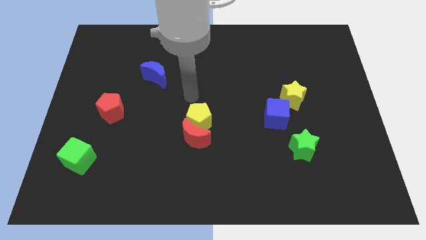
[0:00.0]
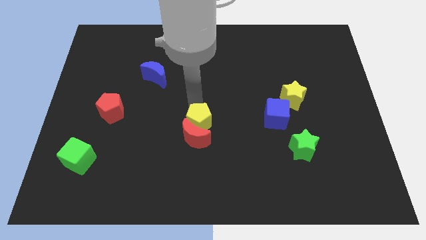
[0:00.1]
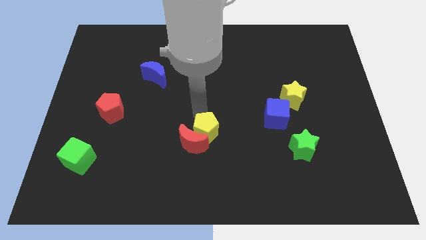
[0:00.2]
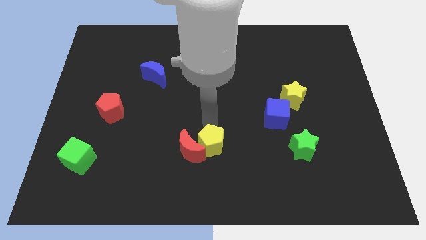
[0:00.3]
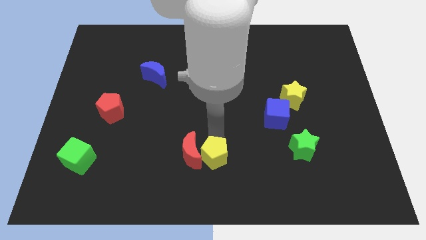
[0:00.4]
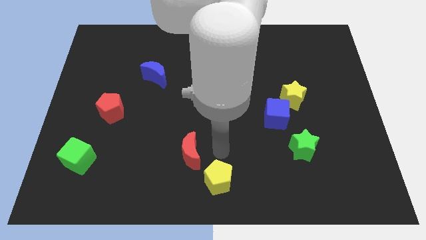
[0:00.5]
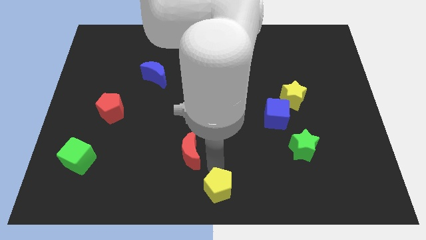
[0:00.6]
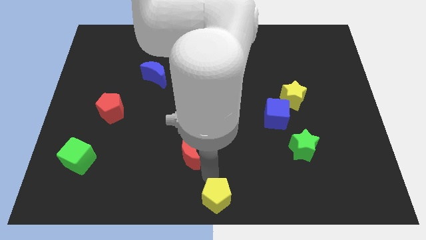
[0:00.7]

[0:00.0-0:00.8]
move the red moon away from the yellow pentagon

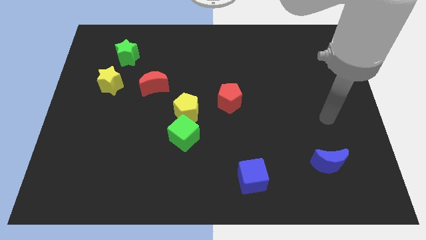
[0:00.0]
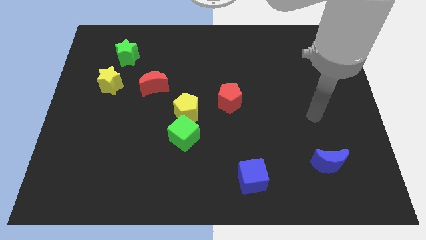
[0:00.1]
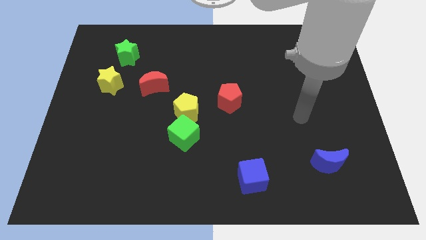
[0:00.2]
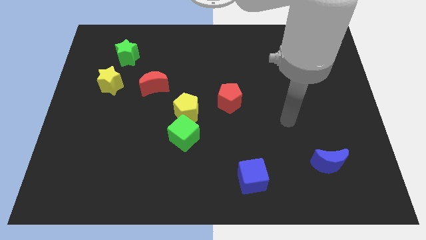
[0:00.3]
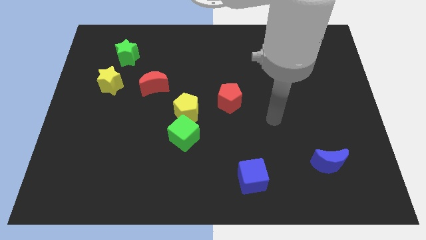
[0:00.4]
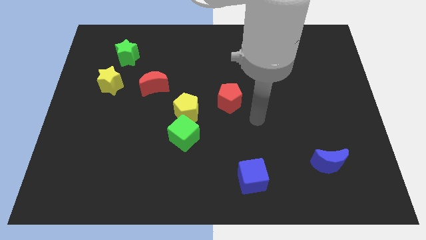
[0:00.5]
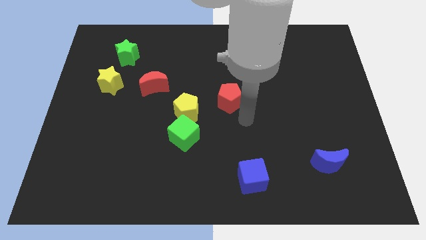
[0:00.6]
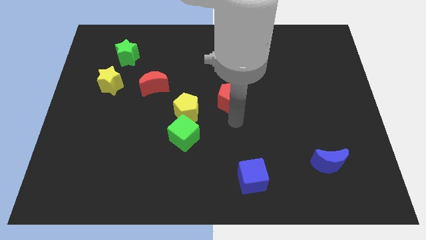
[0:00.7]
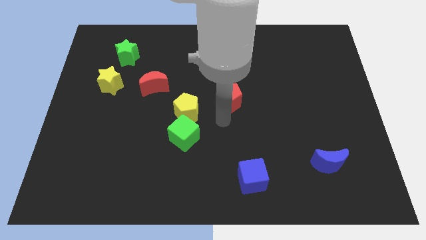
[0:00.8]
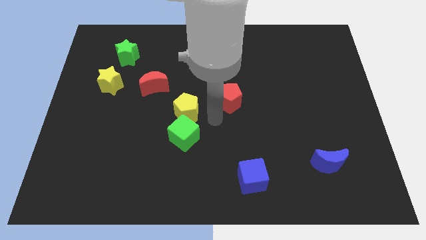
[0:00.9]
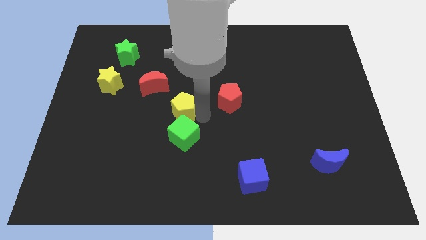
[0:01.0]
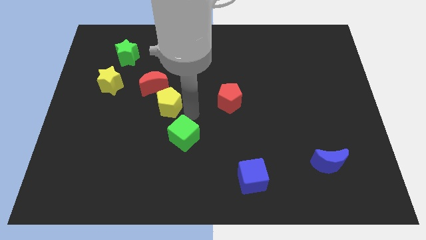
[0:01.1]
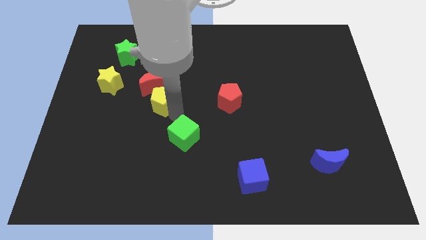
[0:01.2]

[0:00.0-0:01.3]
separate the green cube from the yellow pentagon

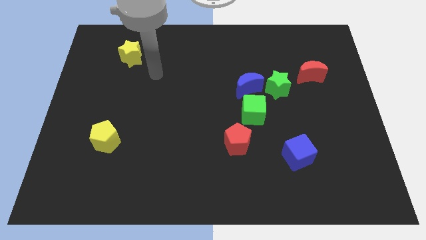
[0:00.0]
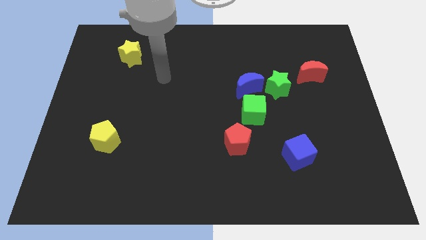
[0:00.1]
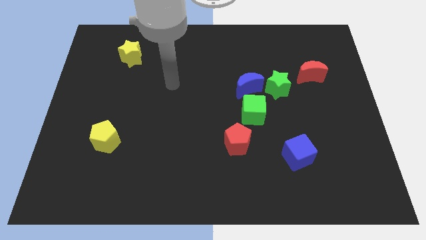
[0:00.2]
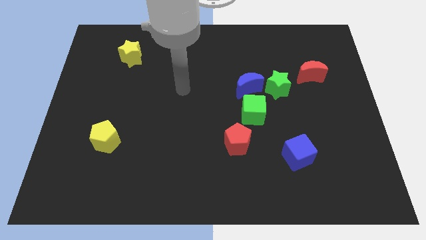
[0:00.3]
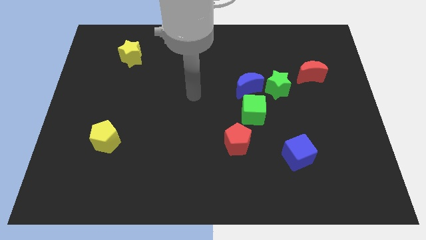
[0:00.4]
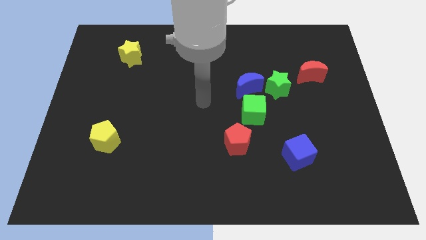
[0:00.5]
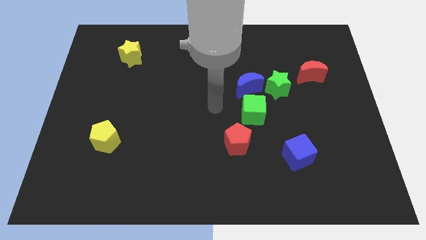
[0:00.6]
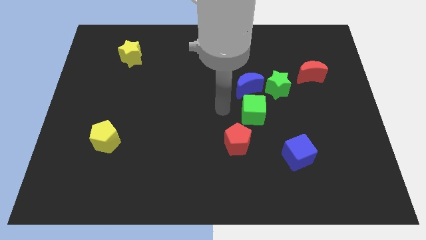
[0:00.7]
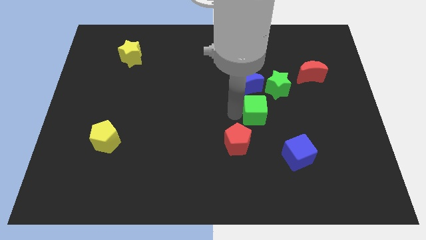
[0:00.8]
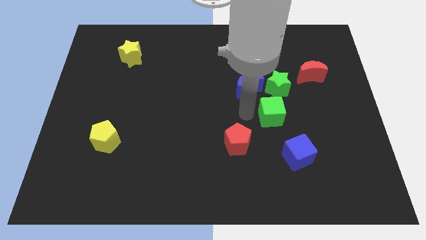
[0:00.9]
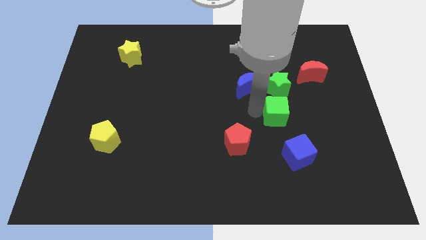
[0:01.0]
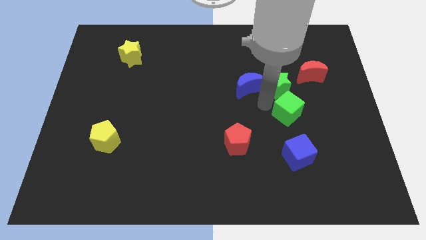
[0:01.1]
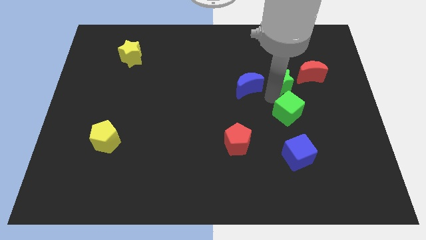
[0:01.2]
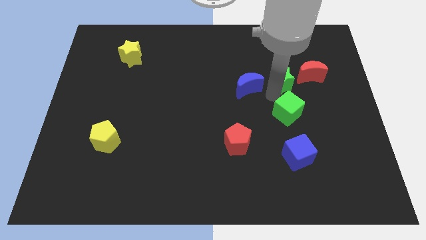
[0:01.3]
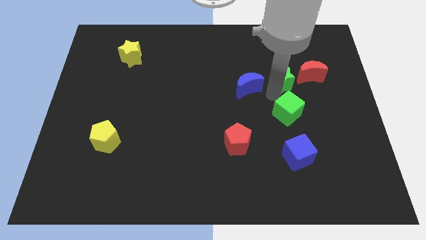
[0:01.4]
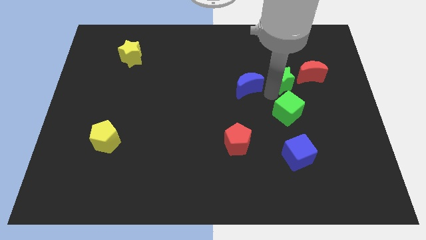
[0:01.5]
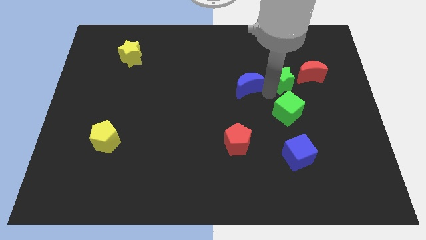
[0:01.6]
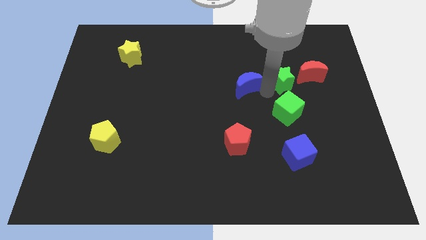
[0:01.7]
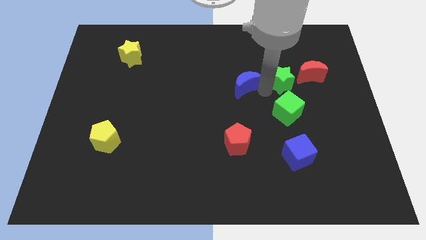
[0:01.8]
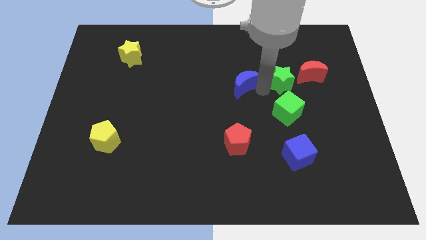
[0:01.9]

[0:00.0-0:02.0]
pull the blue moon apart from the green star and green cube

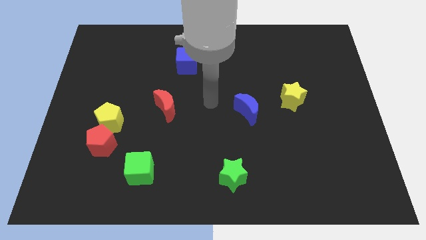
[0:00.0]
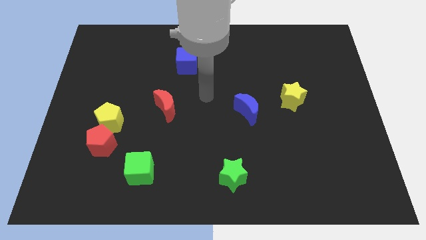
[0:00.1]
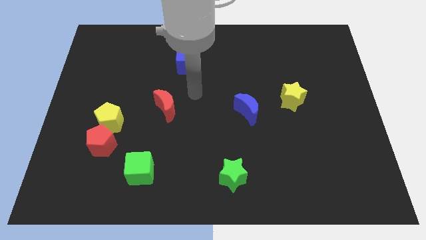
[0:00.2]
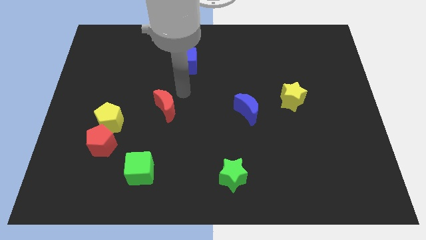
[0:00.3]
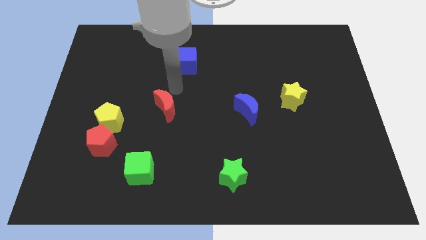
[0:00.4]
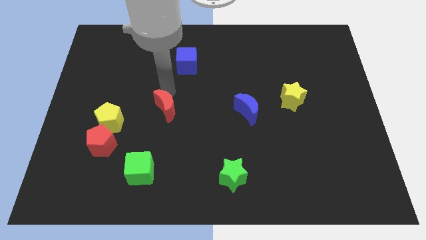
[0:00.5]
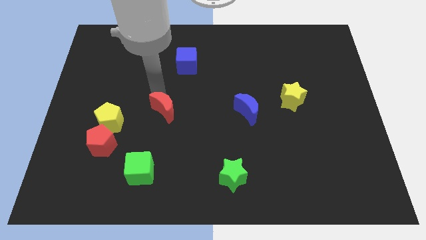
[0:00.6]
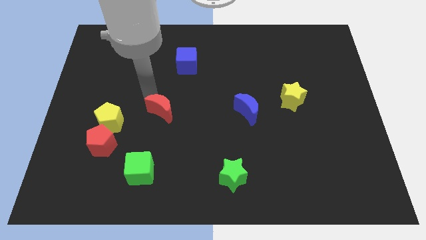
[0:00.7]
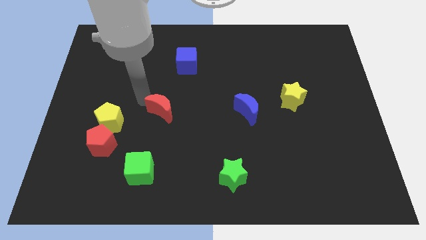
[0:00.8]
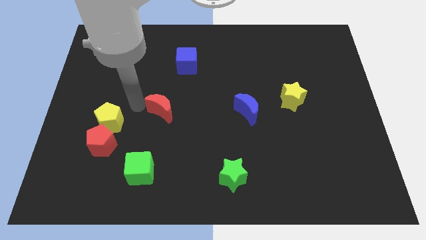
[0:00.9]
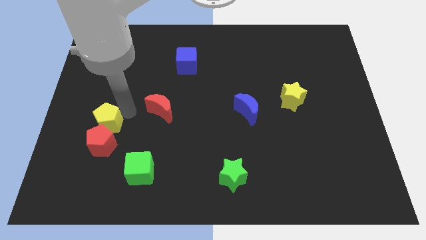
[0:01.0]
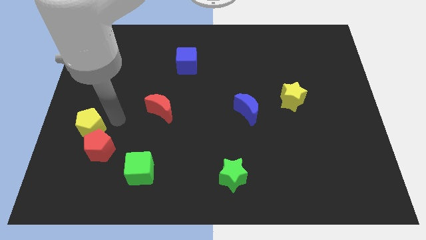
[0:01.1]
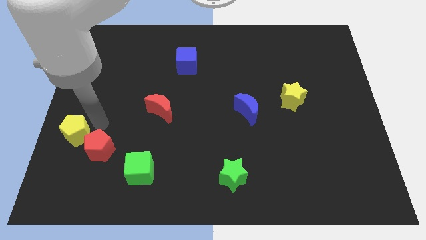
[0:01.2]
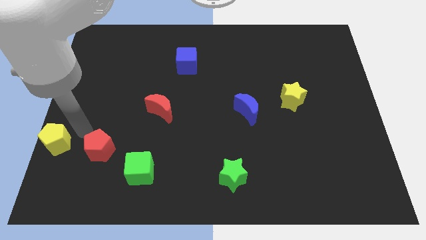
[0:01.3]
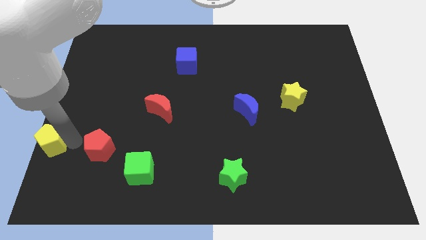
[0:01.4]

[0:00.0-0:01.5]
move the red pentagon away from the yellow pentagon

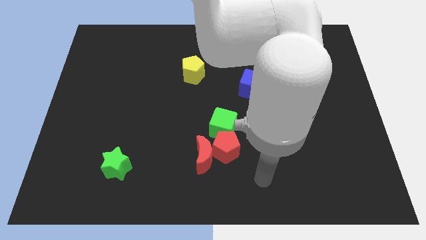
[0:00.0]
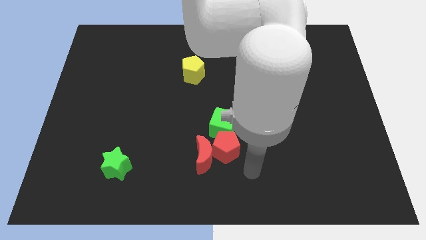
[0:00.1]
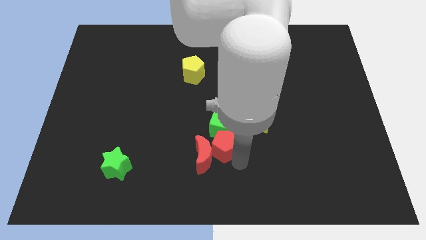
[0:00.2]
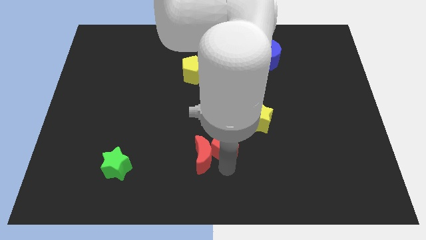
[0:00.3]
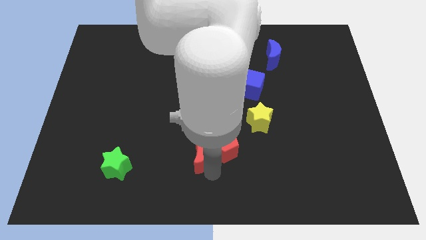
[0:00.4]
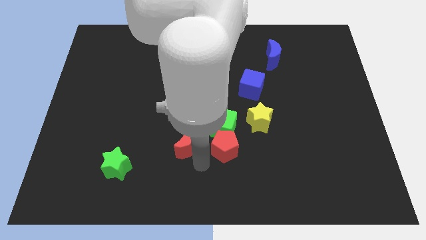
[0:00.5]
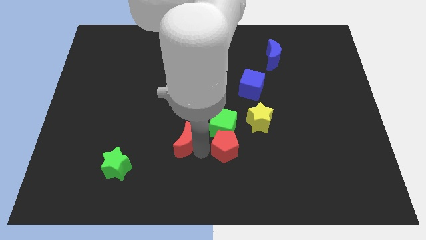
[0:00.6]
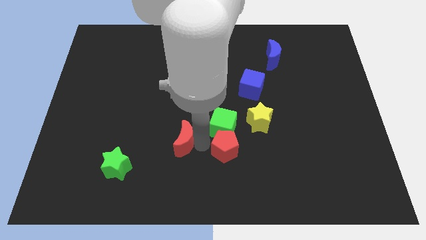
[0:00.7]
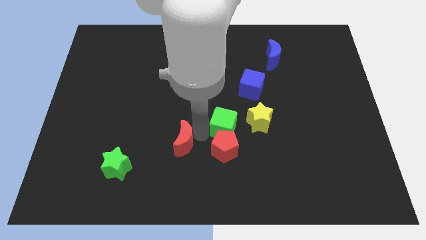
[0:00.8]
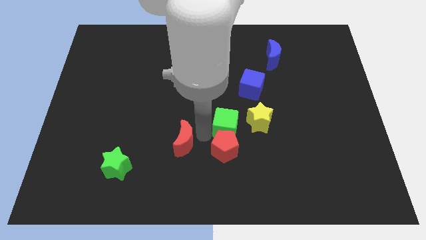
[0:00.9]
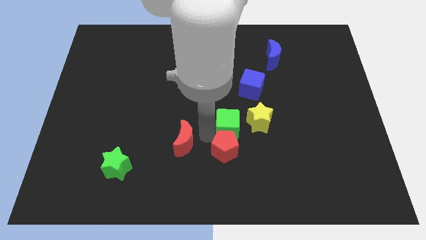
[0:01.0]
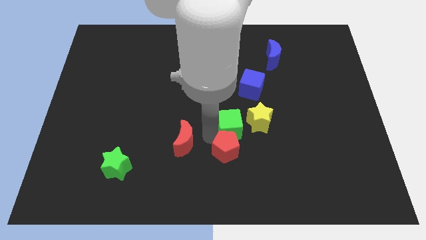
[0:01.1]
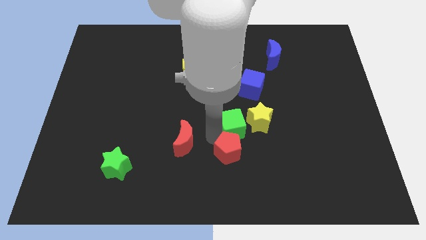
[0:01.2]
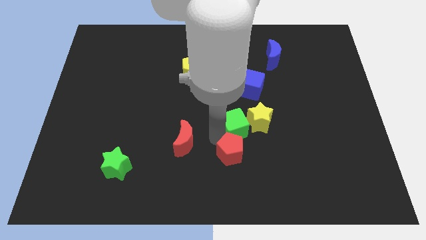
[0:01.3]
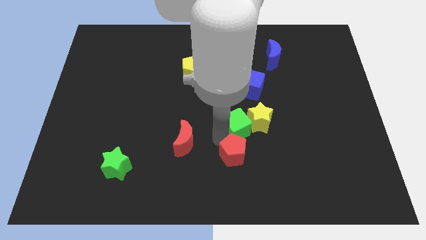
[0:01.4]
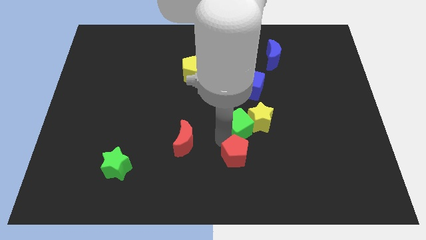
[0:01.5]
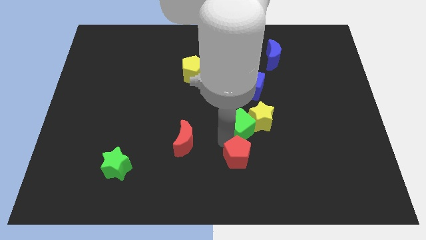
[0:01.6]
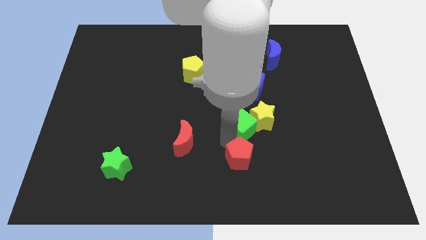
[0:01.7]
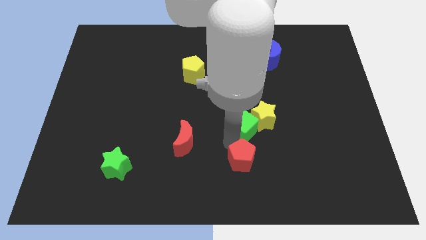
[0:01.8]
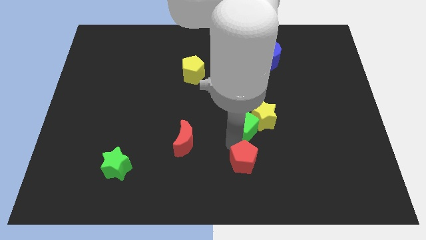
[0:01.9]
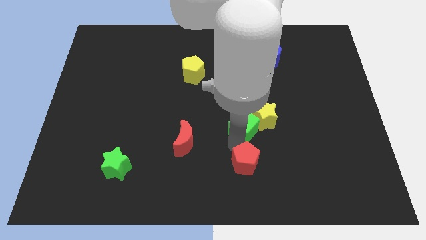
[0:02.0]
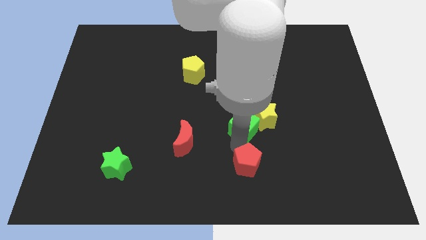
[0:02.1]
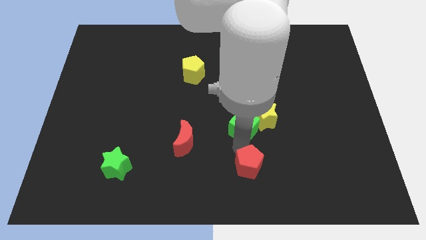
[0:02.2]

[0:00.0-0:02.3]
move the red pentagon away from the red moon and green cube

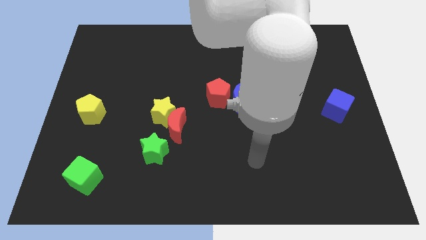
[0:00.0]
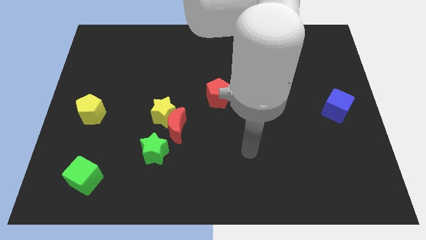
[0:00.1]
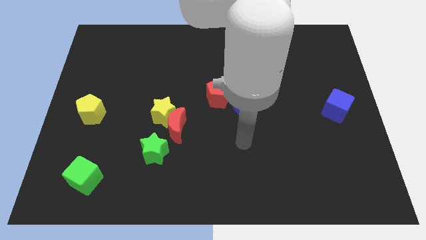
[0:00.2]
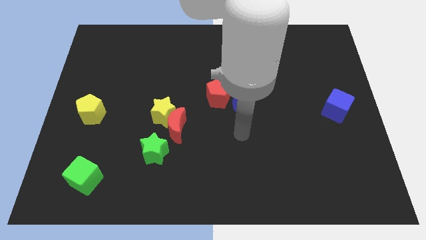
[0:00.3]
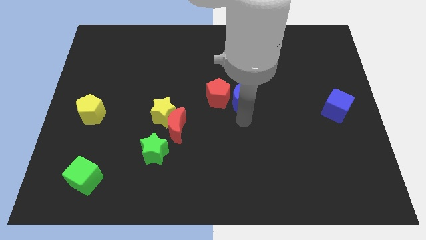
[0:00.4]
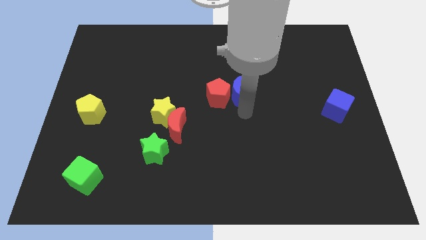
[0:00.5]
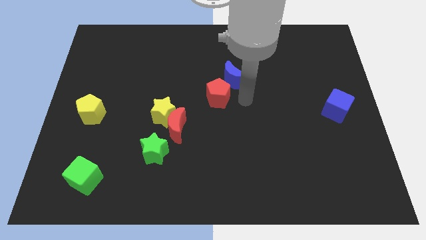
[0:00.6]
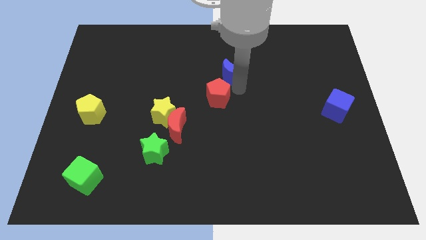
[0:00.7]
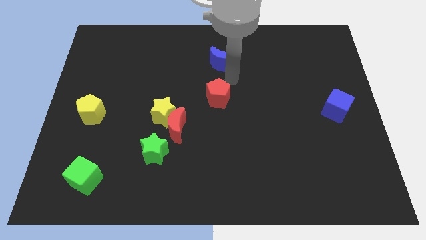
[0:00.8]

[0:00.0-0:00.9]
pull the red pentagon apart from the blue moon

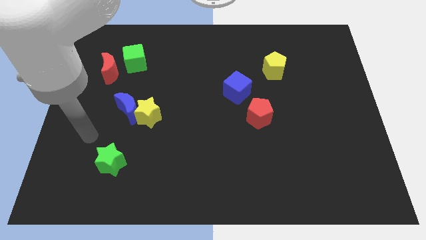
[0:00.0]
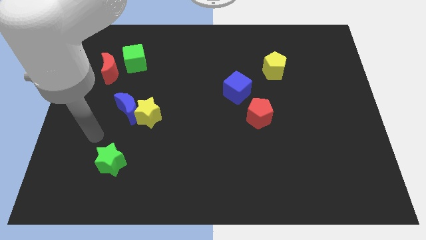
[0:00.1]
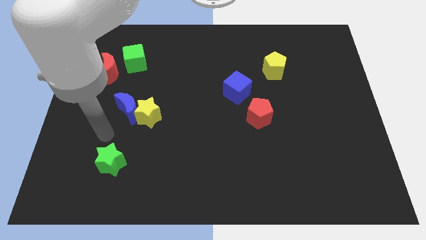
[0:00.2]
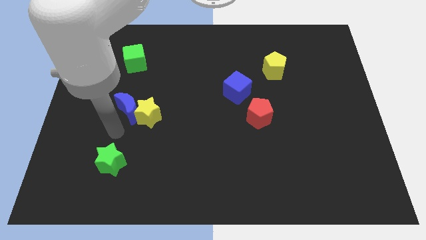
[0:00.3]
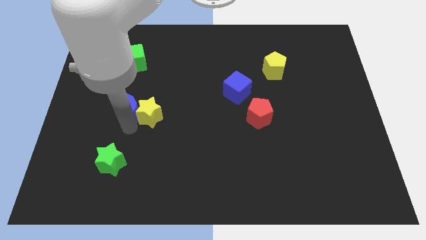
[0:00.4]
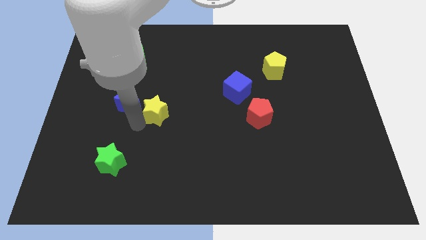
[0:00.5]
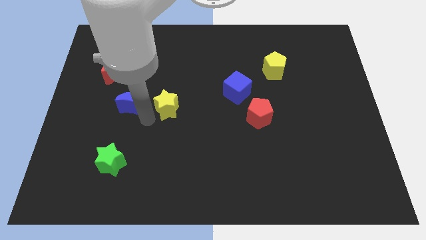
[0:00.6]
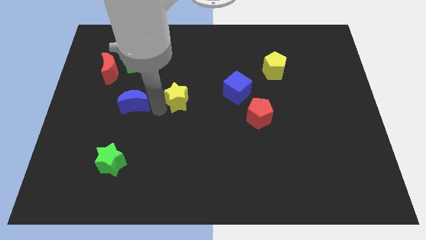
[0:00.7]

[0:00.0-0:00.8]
separate the blue moon from the yellow star
